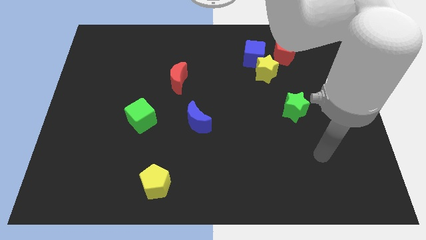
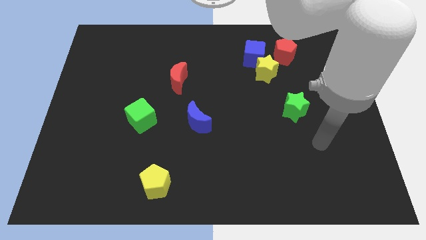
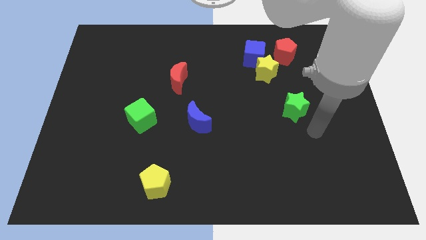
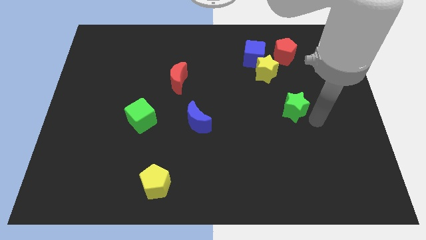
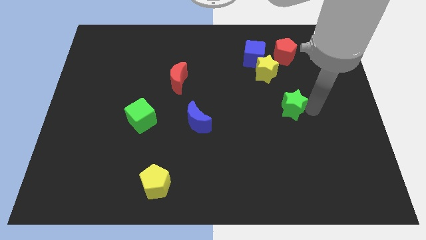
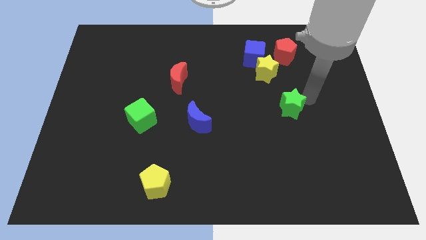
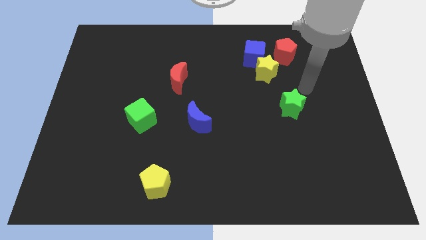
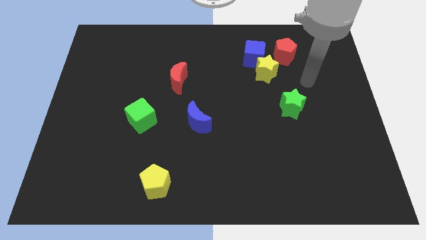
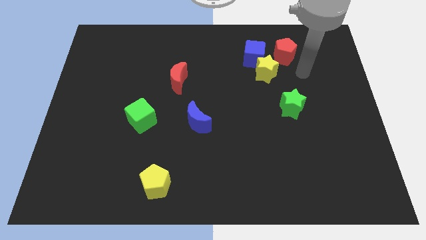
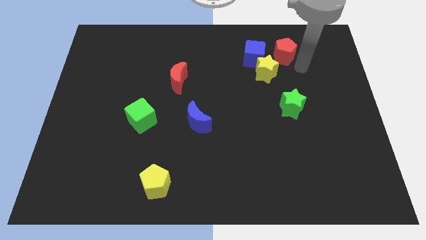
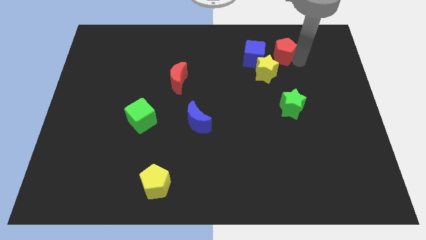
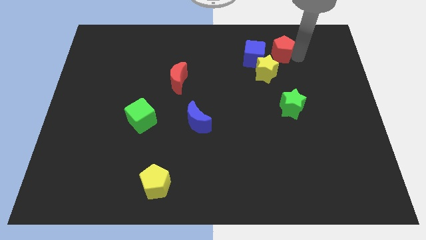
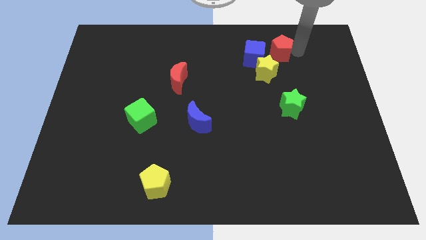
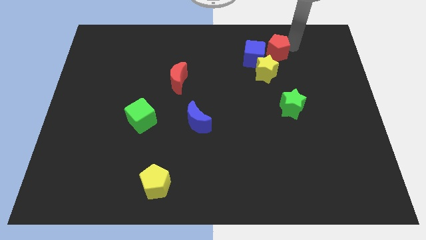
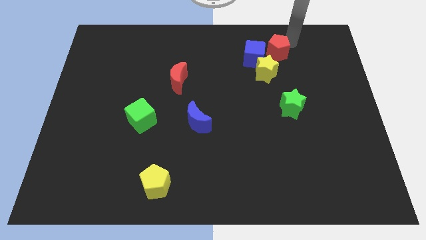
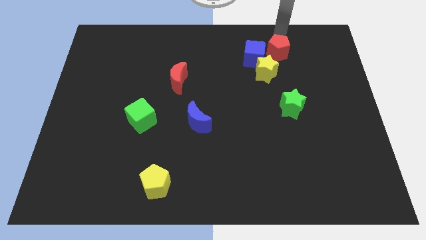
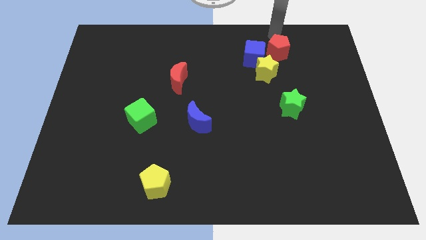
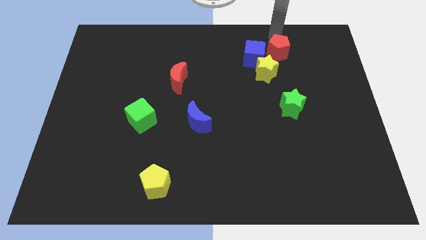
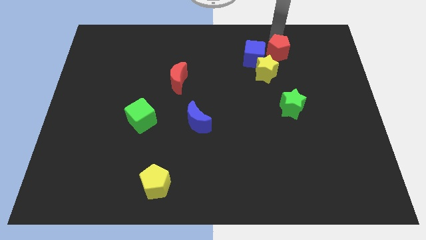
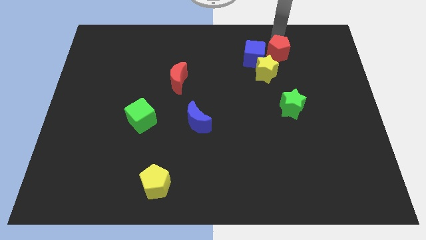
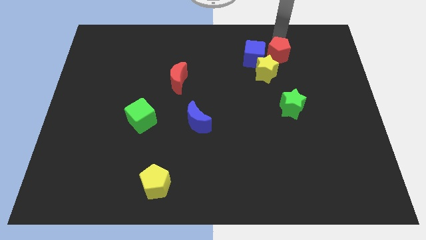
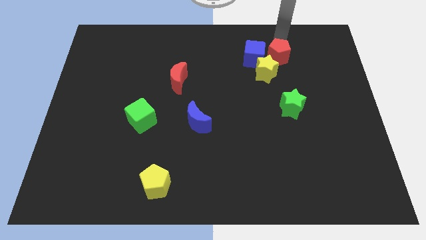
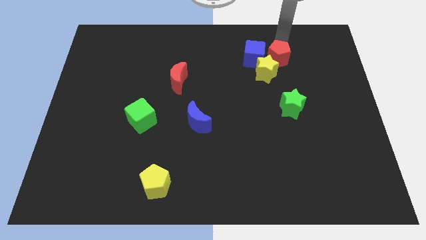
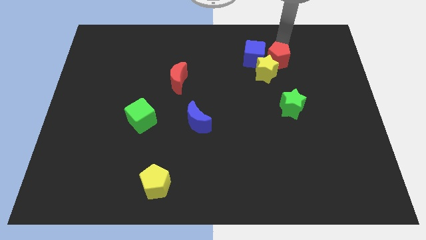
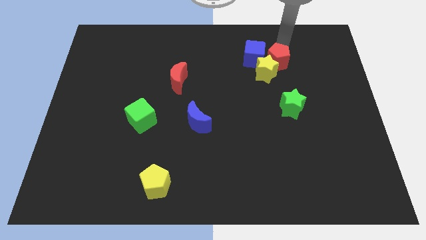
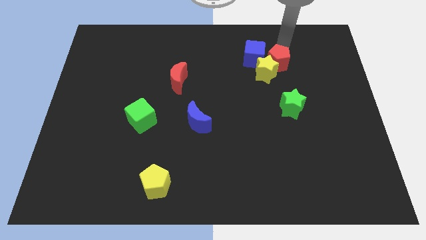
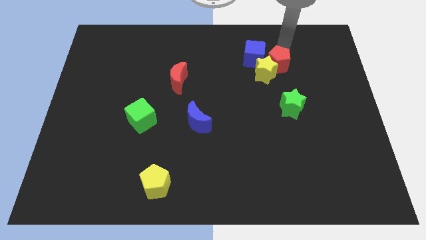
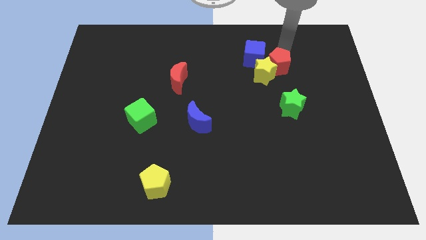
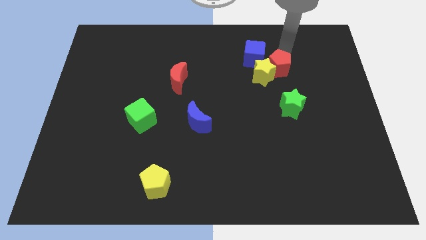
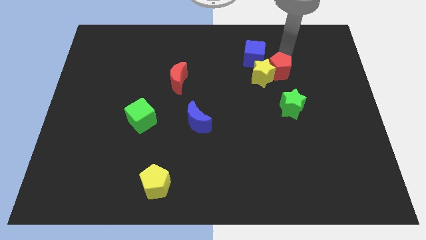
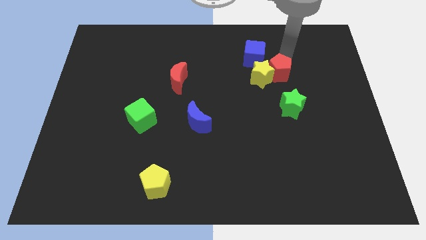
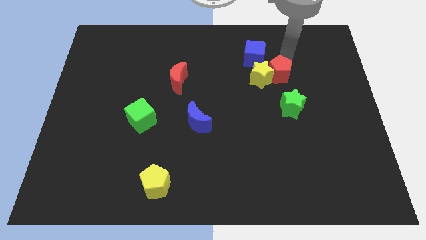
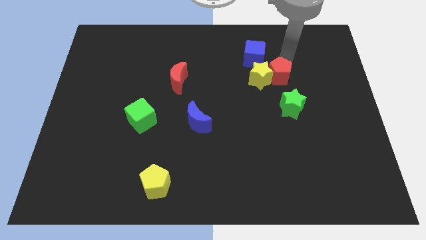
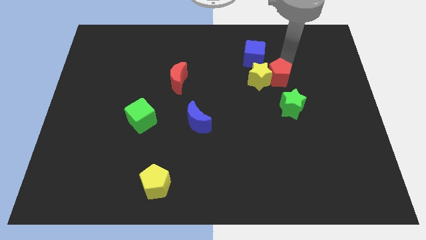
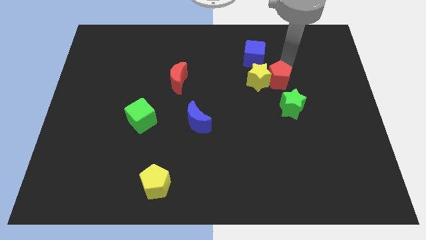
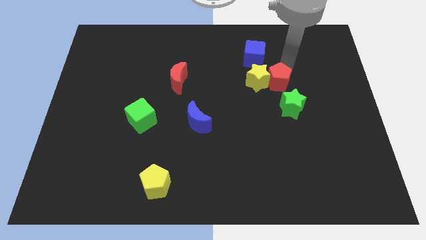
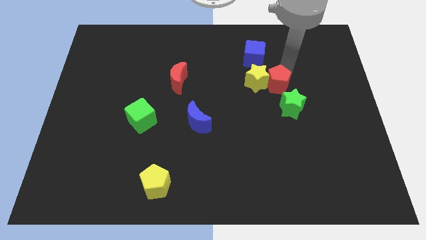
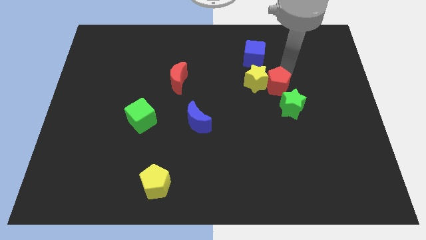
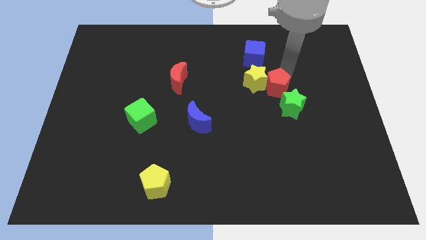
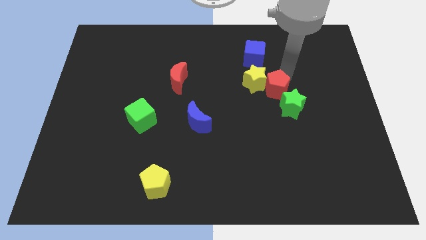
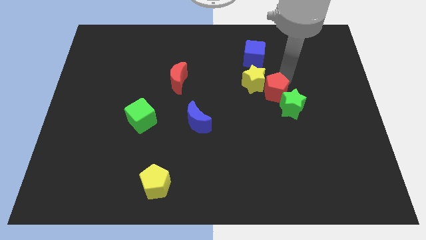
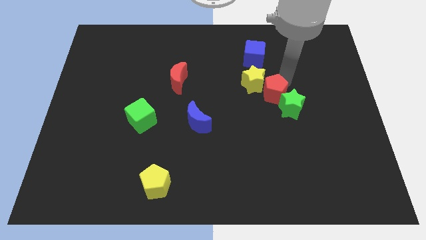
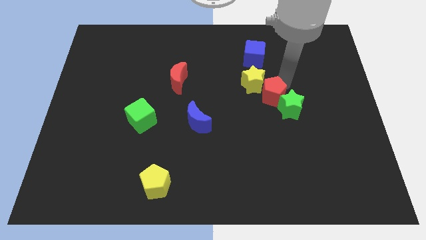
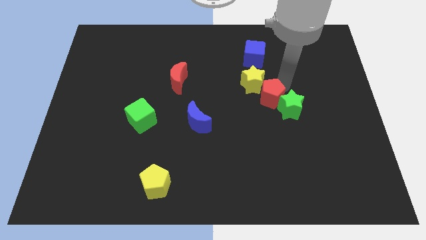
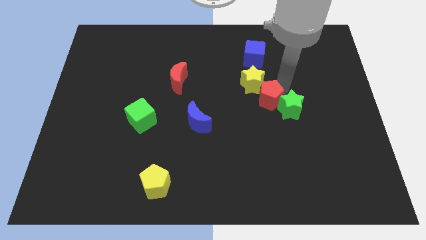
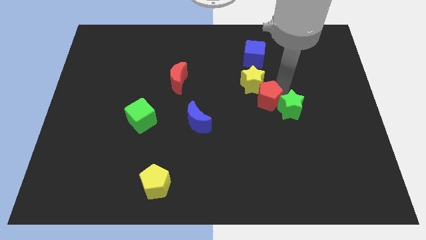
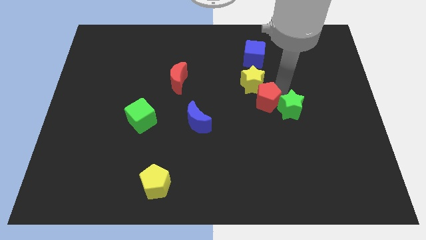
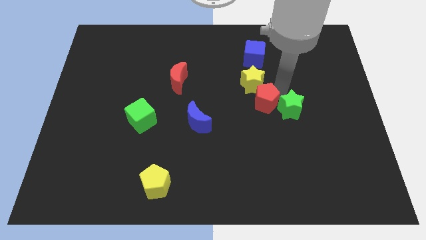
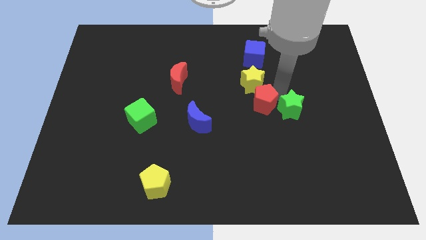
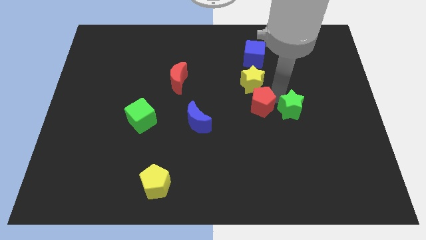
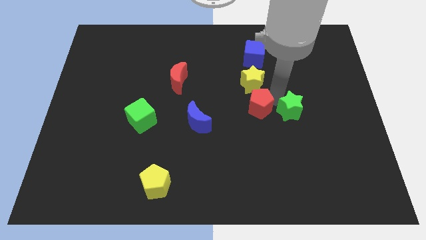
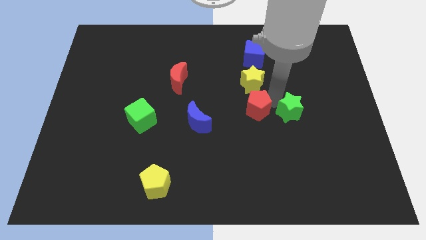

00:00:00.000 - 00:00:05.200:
put the red pentagon to the right of the blue moon
